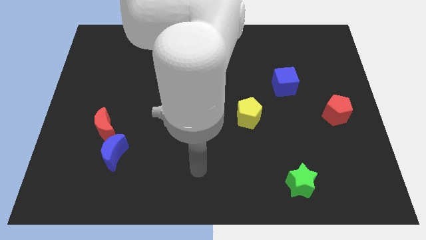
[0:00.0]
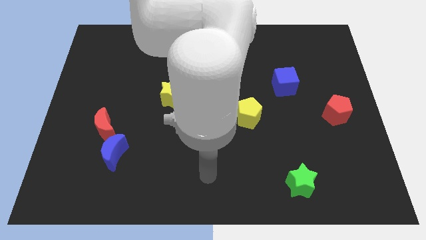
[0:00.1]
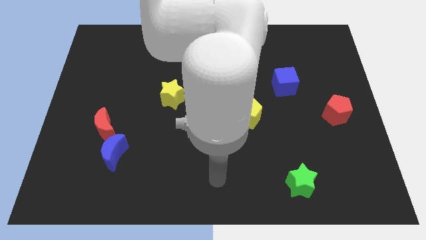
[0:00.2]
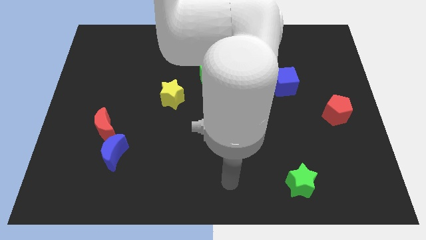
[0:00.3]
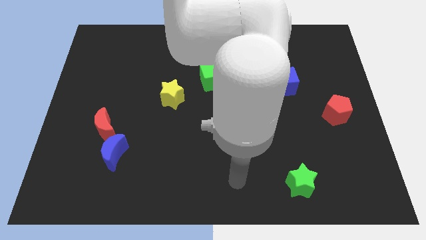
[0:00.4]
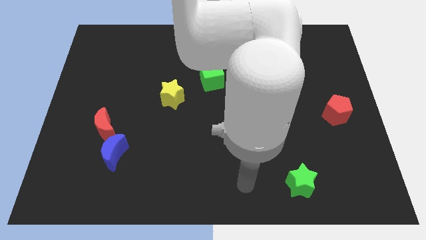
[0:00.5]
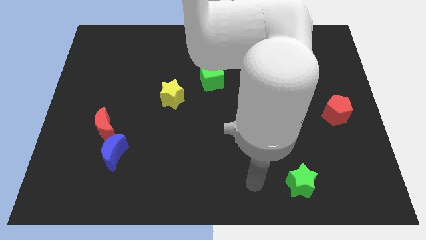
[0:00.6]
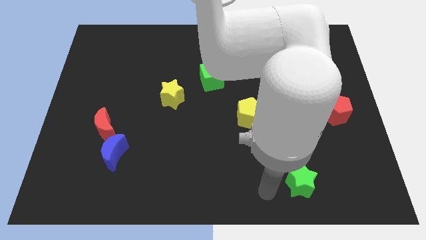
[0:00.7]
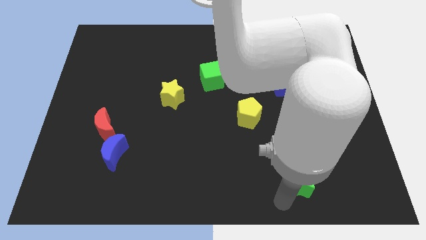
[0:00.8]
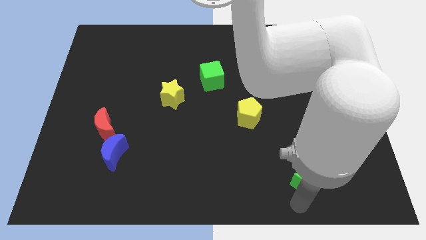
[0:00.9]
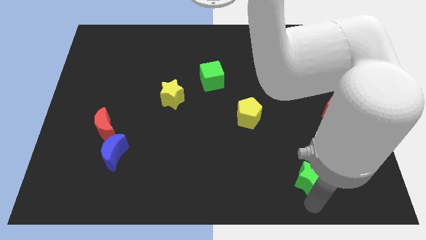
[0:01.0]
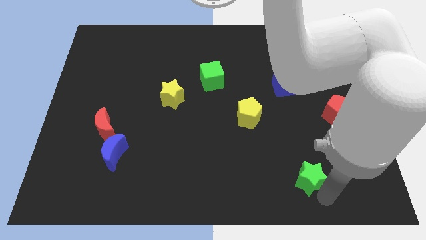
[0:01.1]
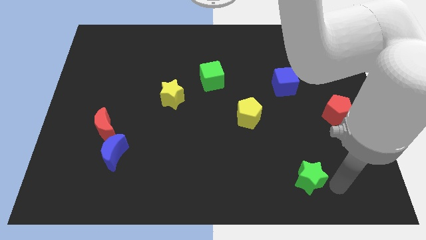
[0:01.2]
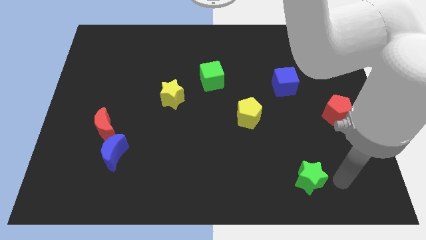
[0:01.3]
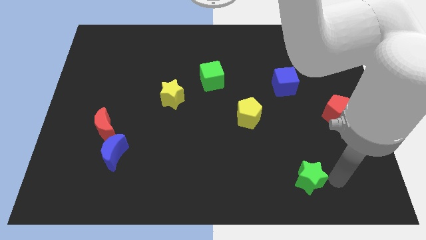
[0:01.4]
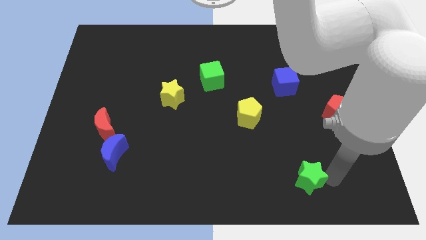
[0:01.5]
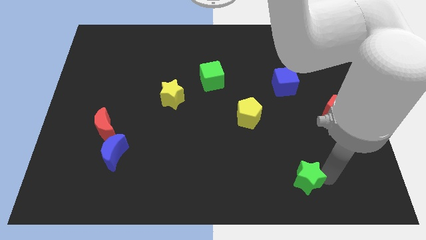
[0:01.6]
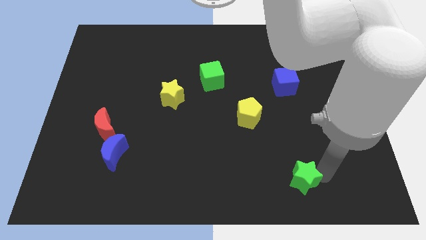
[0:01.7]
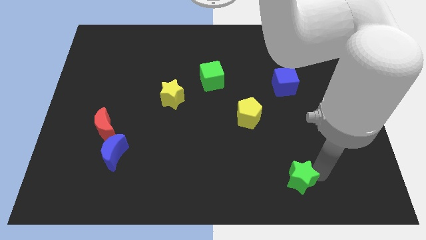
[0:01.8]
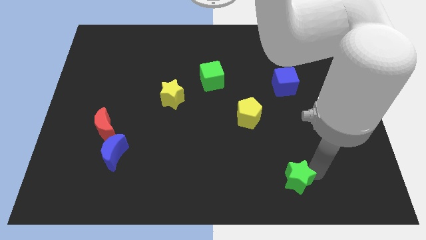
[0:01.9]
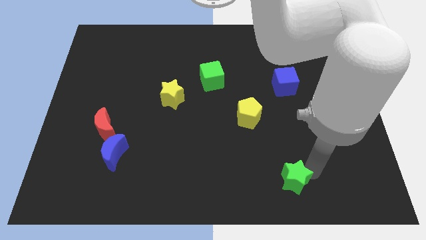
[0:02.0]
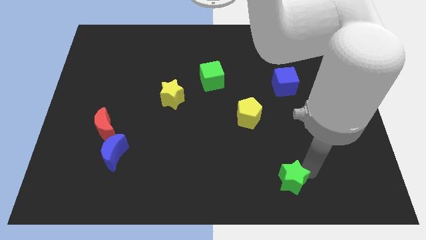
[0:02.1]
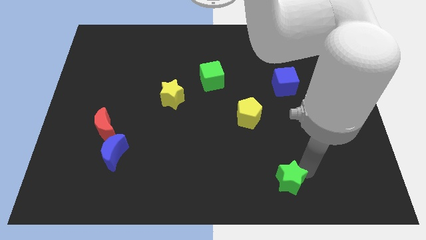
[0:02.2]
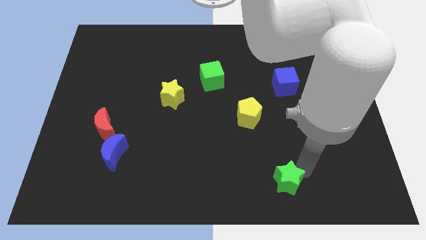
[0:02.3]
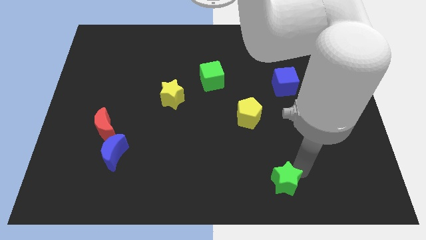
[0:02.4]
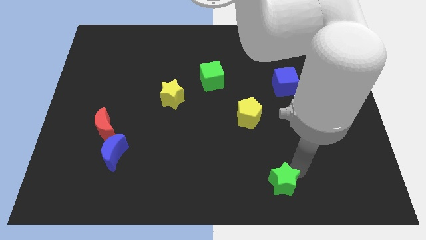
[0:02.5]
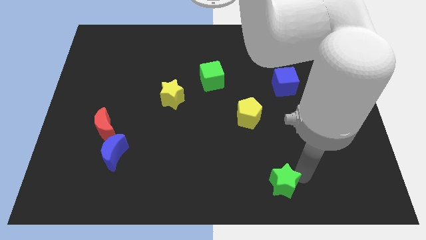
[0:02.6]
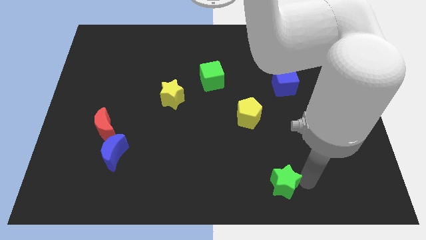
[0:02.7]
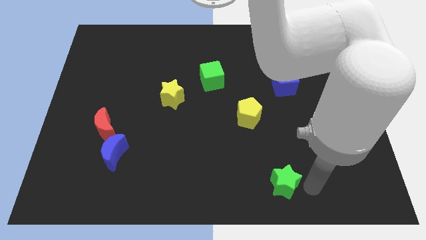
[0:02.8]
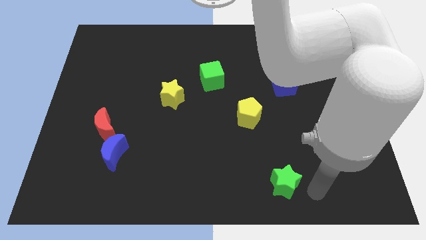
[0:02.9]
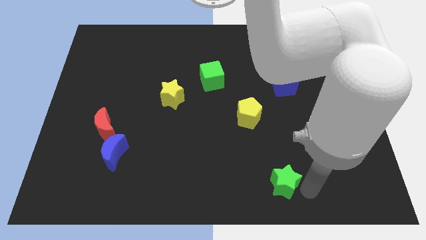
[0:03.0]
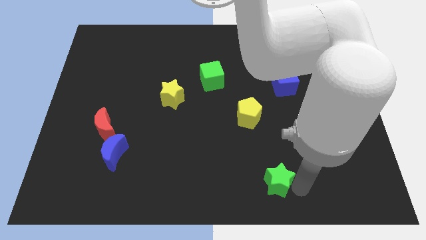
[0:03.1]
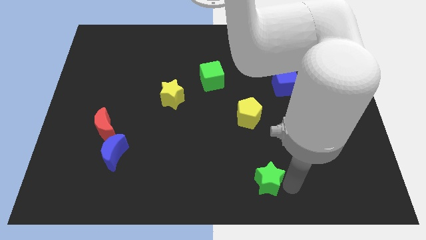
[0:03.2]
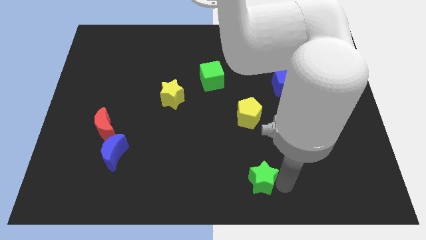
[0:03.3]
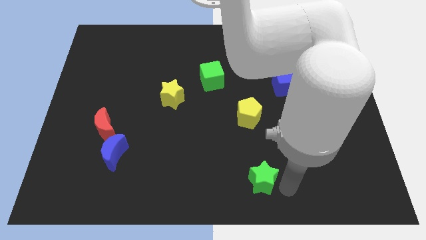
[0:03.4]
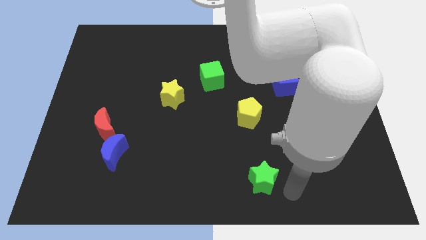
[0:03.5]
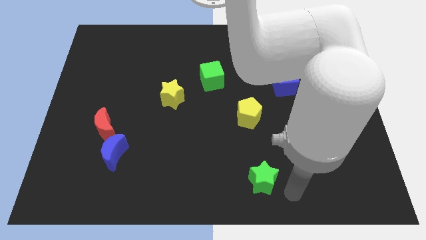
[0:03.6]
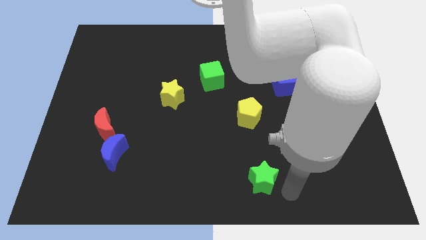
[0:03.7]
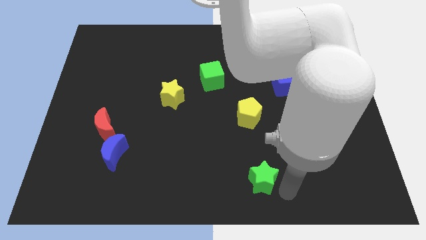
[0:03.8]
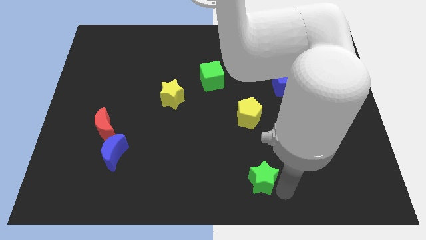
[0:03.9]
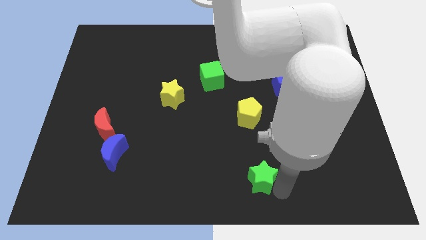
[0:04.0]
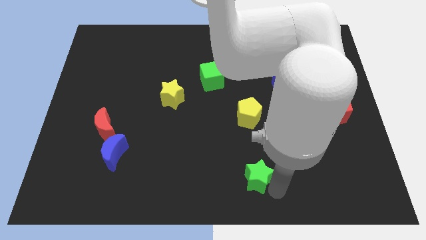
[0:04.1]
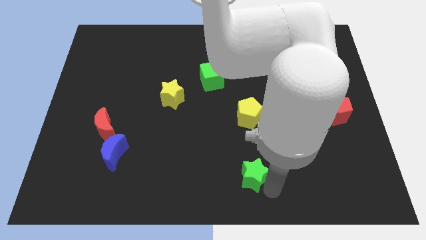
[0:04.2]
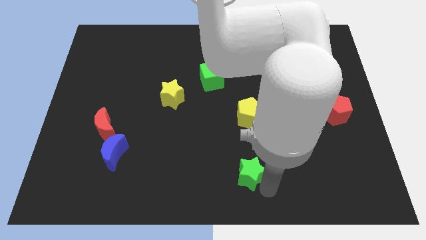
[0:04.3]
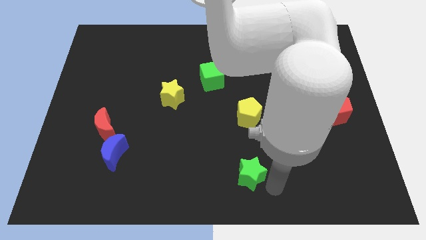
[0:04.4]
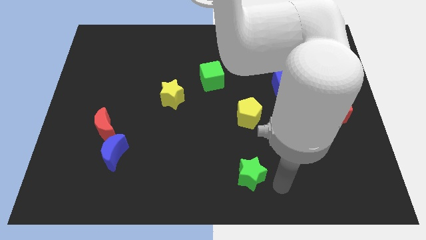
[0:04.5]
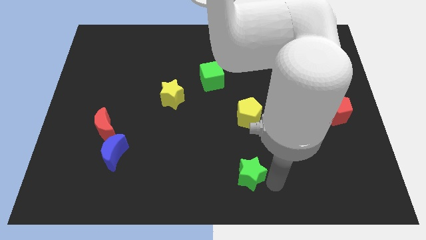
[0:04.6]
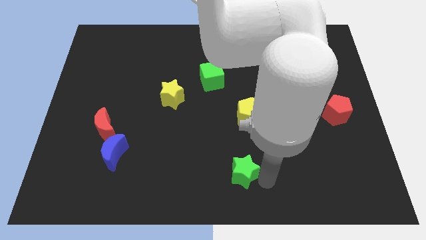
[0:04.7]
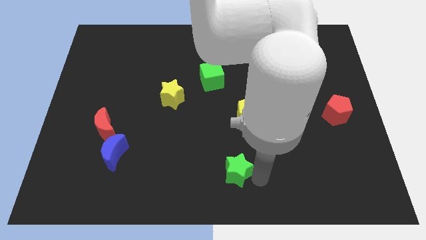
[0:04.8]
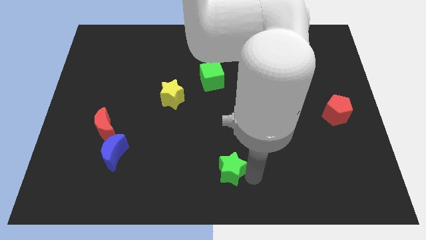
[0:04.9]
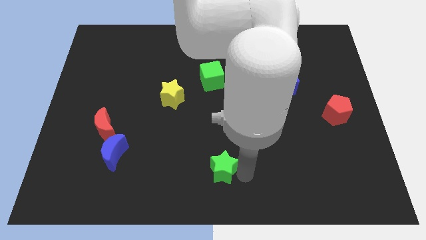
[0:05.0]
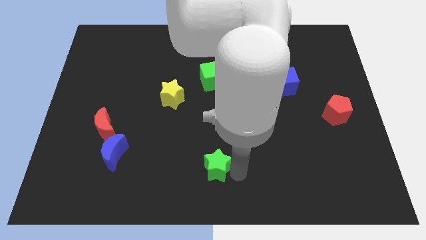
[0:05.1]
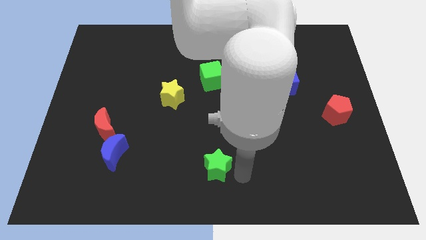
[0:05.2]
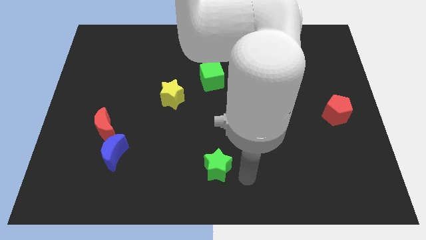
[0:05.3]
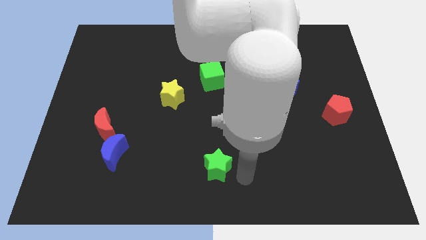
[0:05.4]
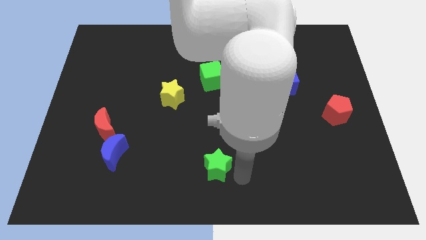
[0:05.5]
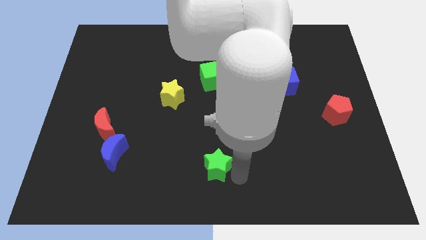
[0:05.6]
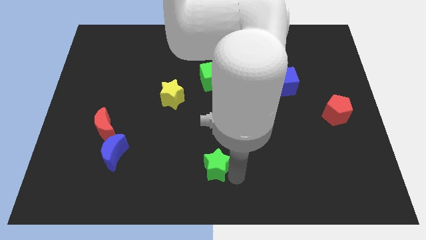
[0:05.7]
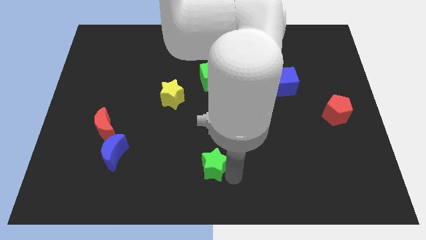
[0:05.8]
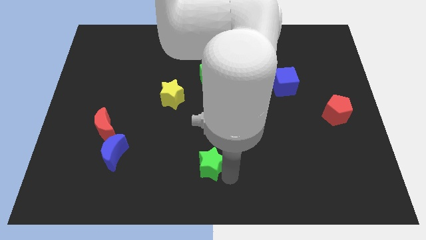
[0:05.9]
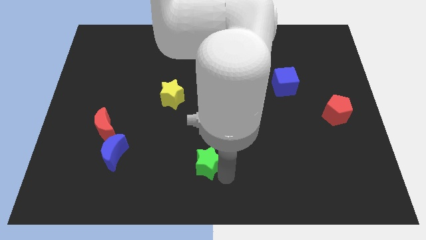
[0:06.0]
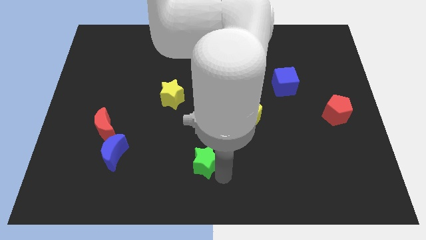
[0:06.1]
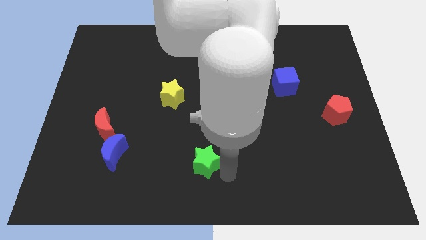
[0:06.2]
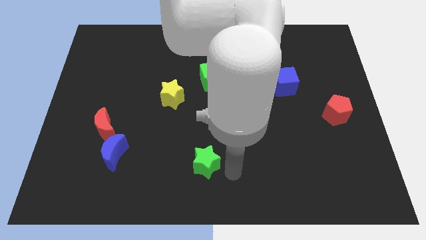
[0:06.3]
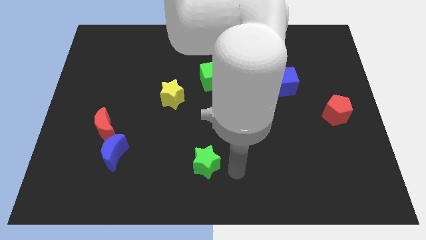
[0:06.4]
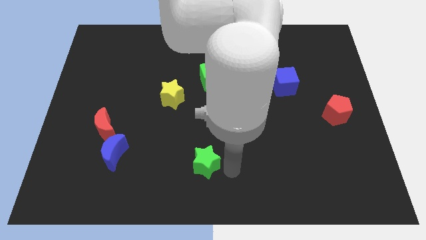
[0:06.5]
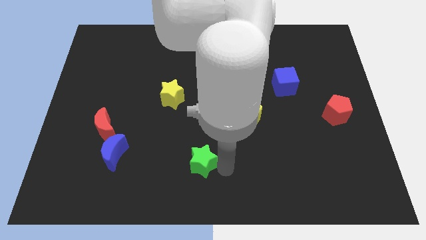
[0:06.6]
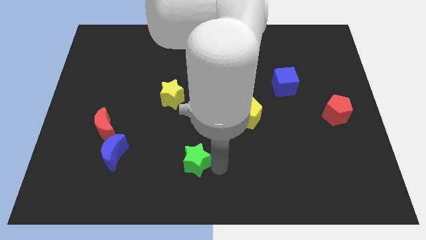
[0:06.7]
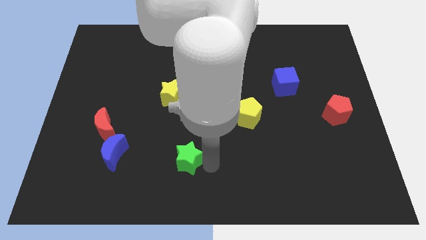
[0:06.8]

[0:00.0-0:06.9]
put the green star to the right of the blue moon

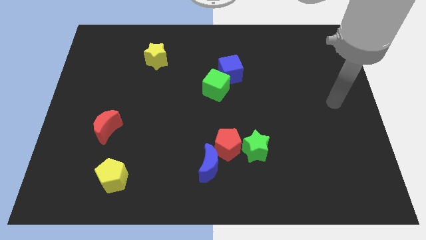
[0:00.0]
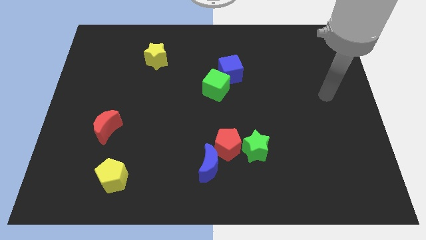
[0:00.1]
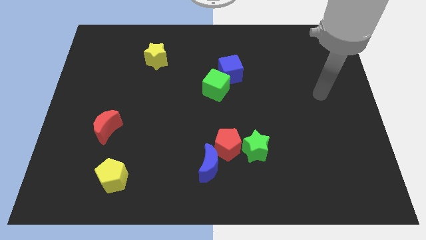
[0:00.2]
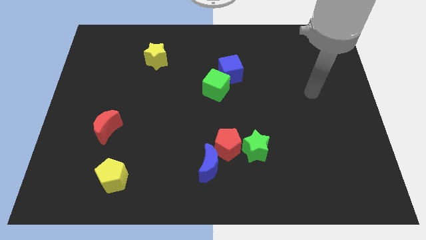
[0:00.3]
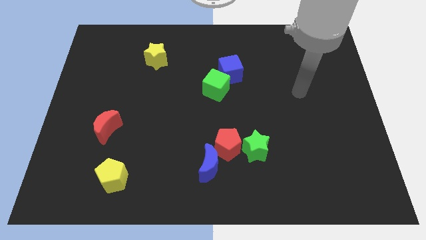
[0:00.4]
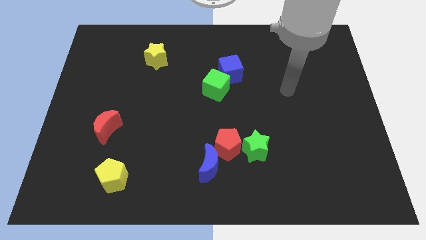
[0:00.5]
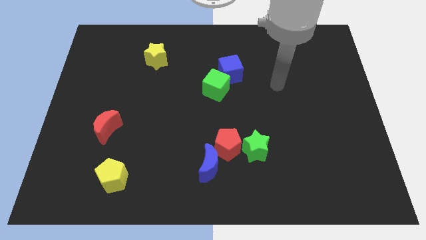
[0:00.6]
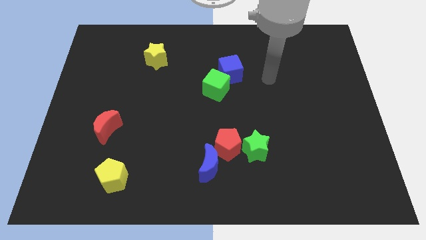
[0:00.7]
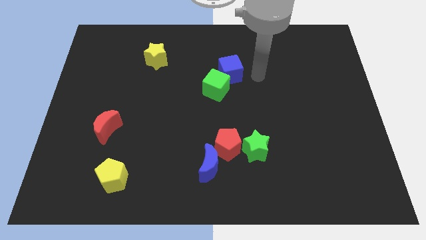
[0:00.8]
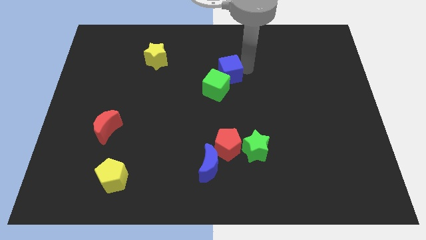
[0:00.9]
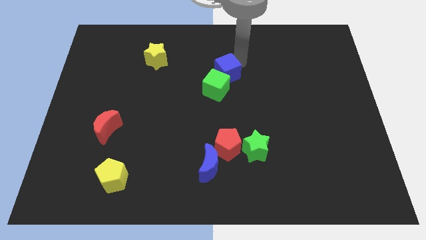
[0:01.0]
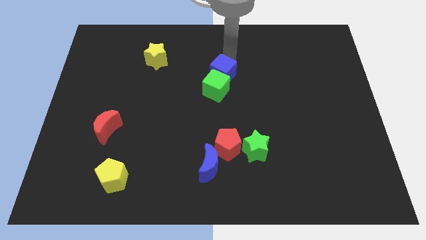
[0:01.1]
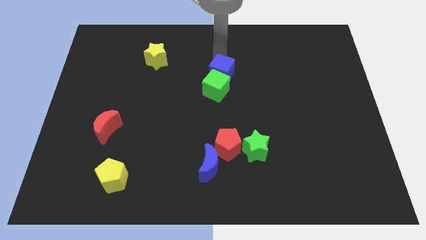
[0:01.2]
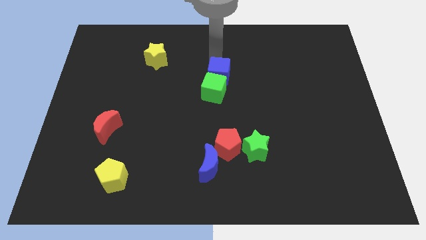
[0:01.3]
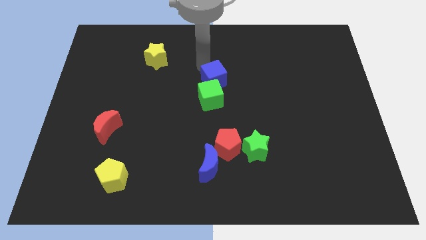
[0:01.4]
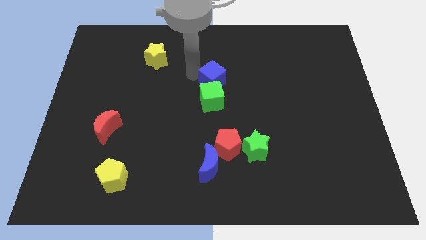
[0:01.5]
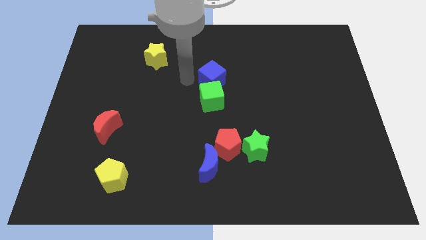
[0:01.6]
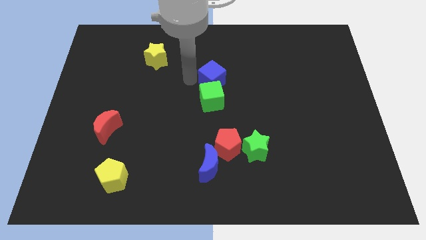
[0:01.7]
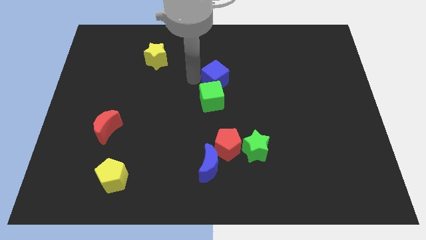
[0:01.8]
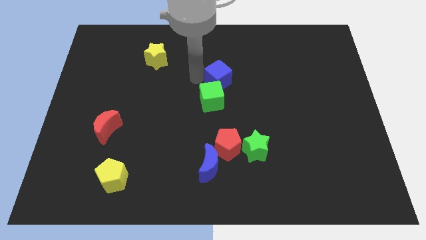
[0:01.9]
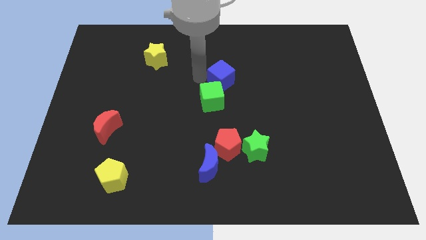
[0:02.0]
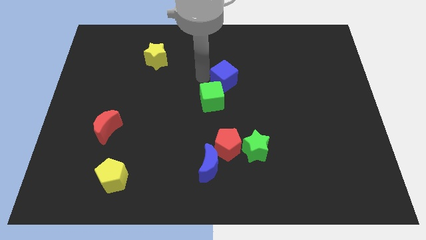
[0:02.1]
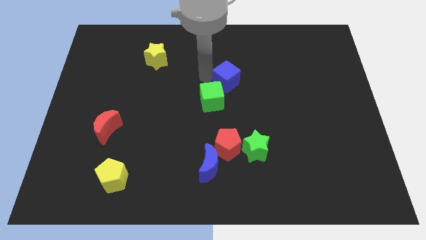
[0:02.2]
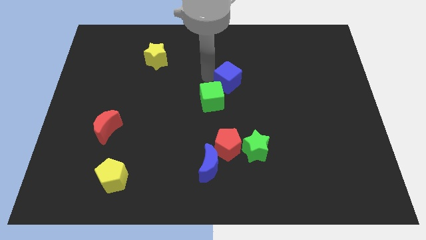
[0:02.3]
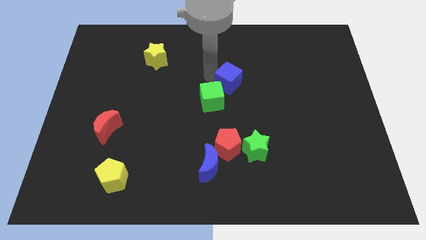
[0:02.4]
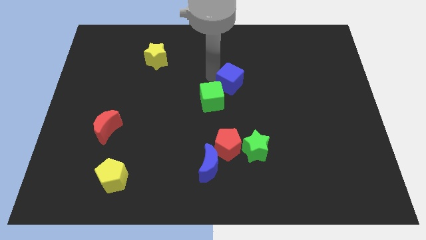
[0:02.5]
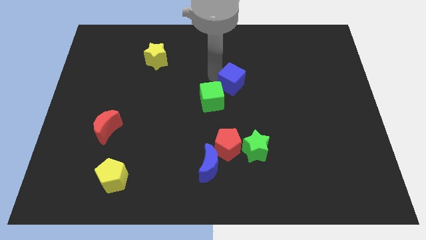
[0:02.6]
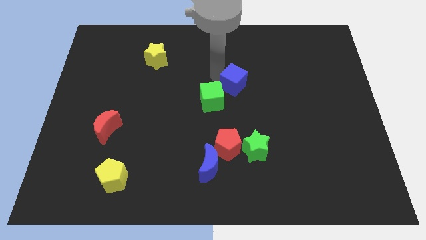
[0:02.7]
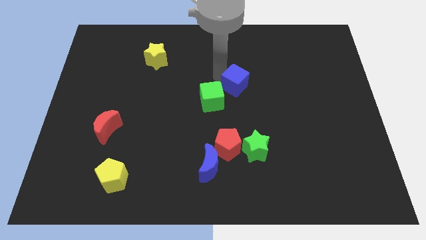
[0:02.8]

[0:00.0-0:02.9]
slide the blue cube to the right of the green cube
